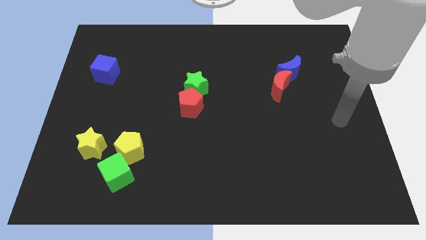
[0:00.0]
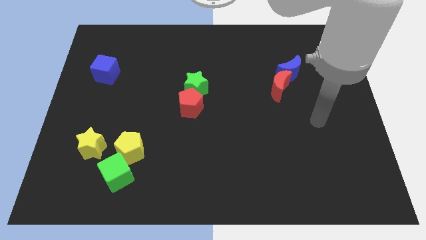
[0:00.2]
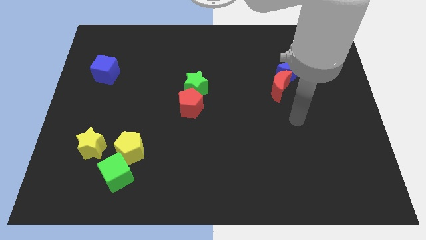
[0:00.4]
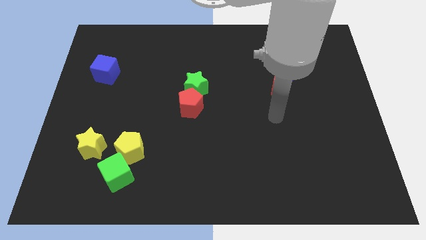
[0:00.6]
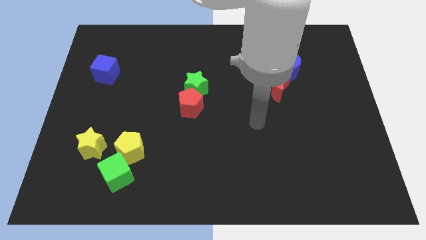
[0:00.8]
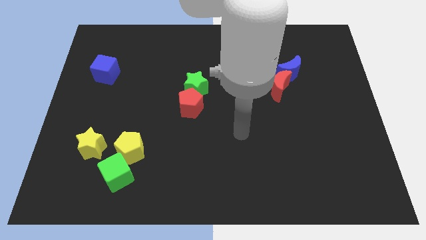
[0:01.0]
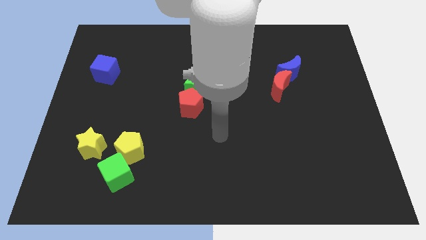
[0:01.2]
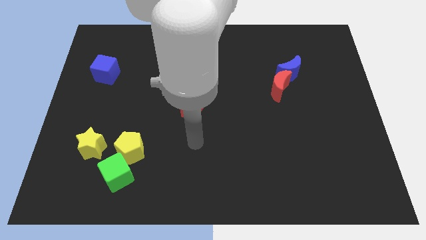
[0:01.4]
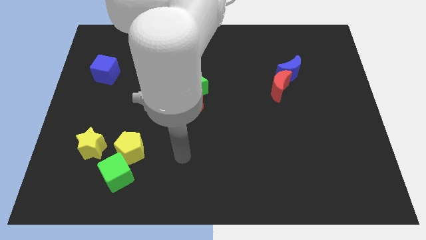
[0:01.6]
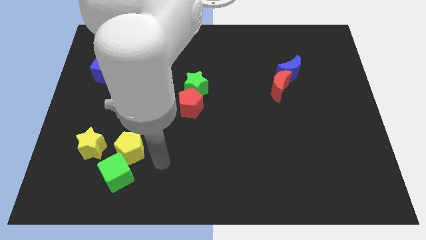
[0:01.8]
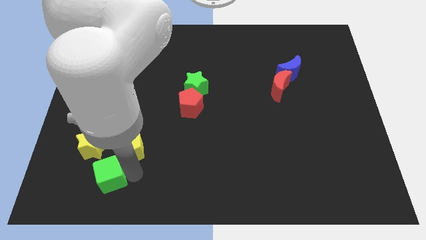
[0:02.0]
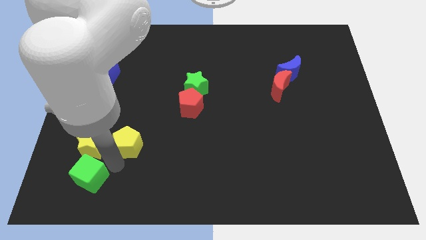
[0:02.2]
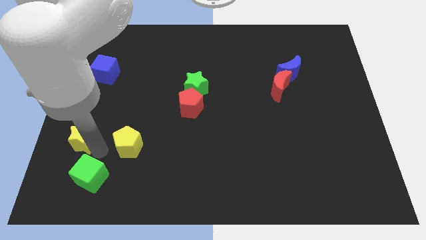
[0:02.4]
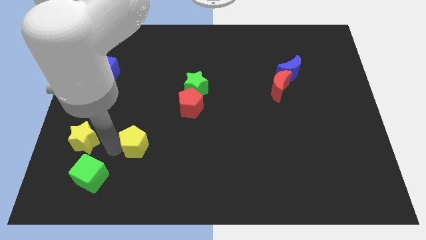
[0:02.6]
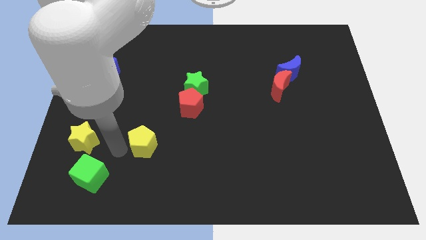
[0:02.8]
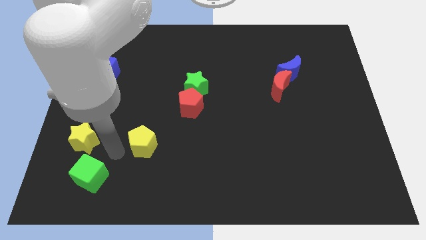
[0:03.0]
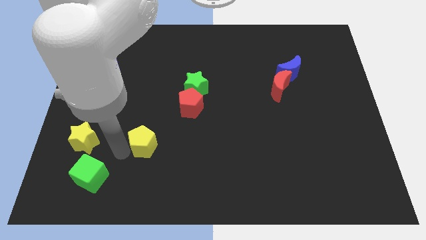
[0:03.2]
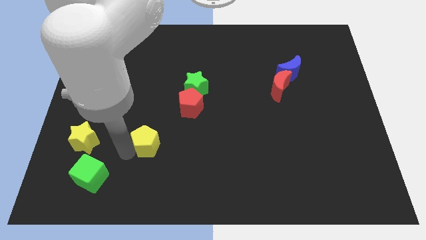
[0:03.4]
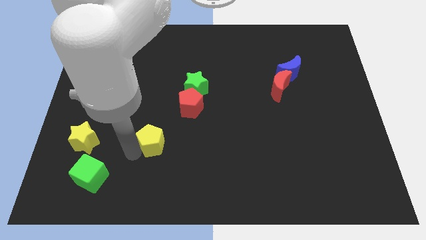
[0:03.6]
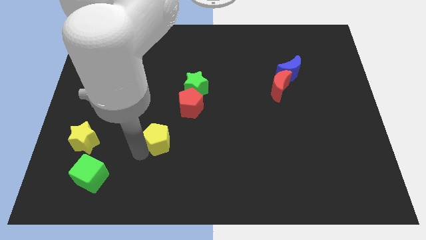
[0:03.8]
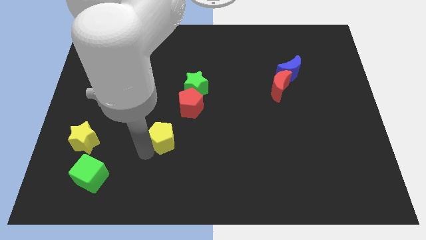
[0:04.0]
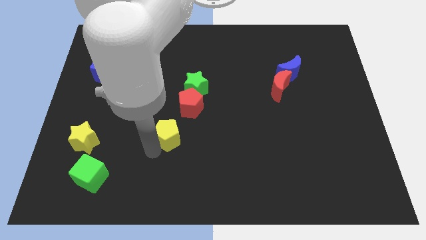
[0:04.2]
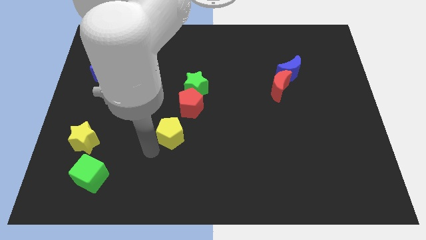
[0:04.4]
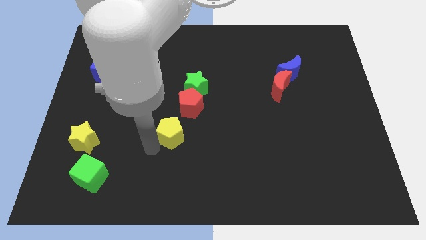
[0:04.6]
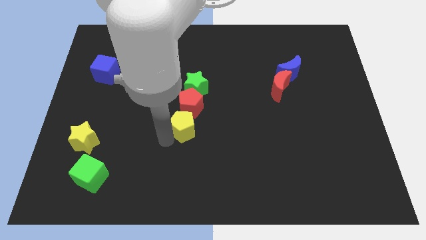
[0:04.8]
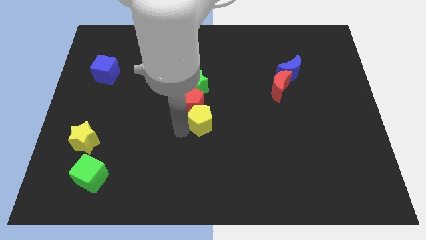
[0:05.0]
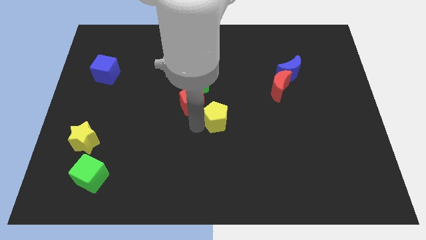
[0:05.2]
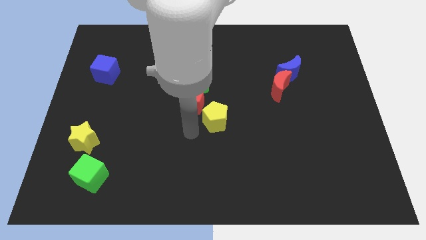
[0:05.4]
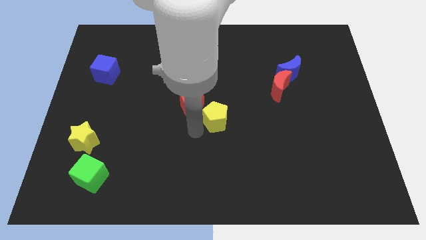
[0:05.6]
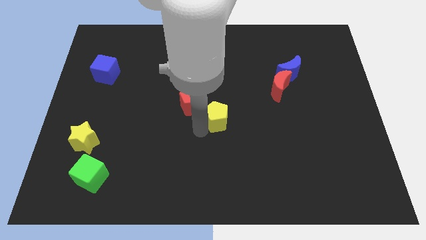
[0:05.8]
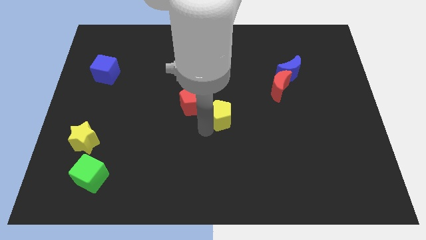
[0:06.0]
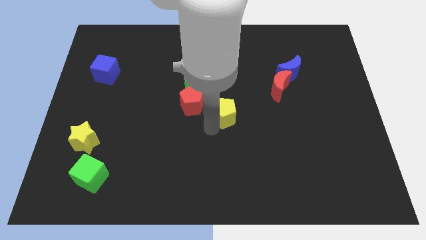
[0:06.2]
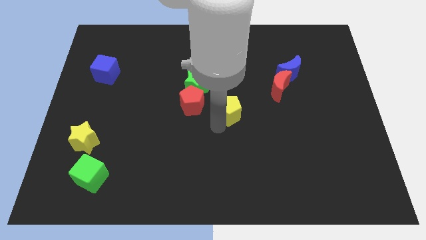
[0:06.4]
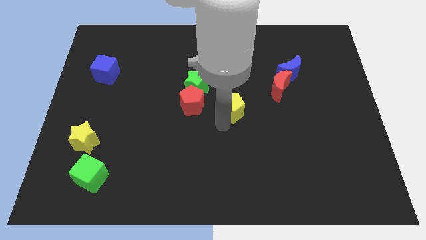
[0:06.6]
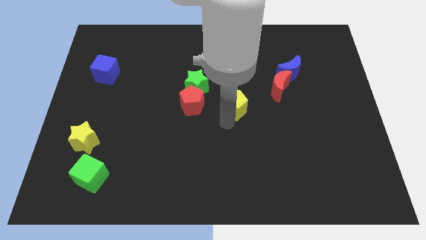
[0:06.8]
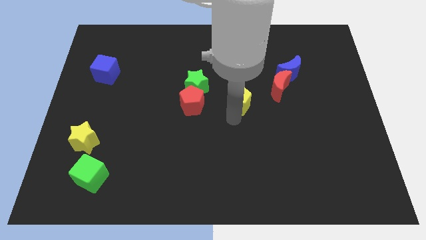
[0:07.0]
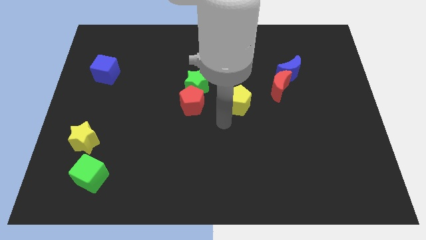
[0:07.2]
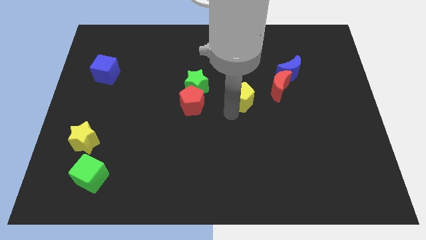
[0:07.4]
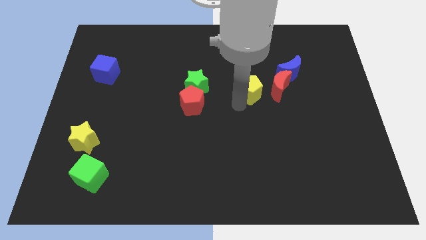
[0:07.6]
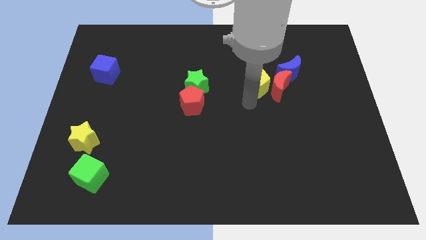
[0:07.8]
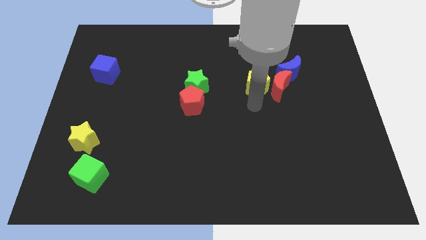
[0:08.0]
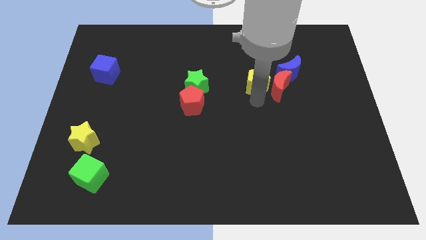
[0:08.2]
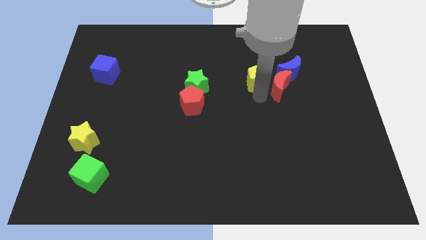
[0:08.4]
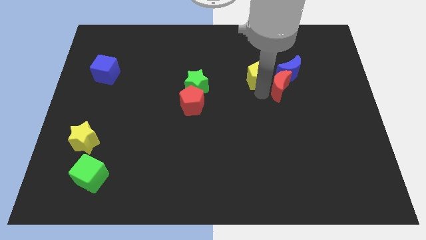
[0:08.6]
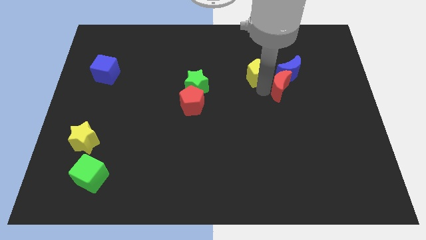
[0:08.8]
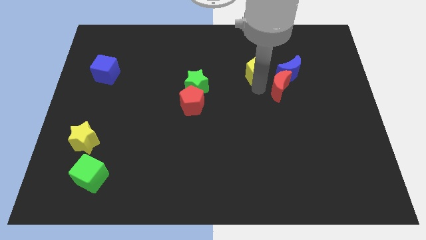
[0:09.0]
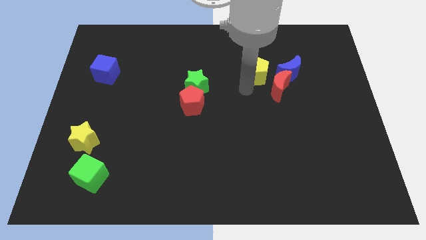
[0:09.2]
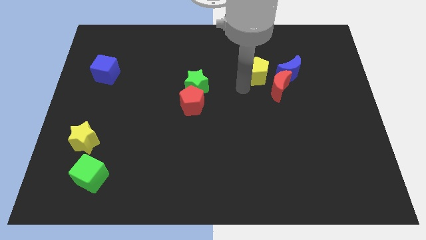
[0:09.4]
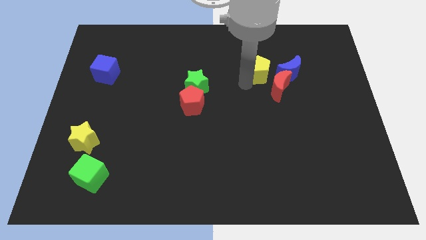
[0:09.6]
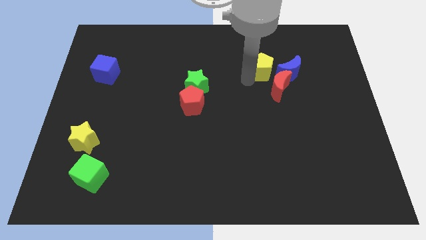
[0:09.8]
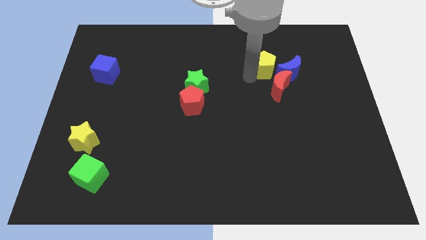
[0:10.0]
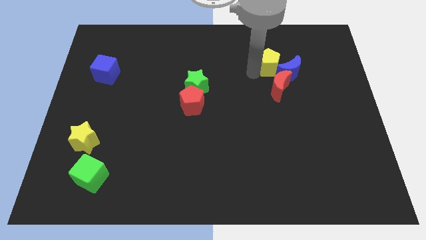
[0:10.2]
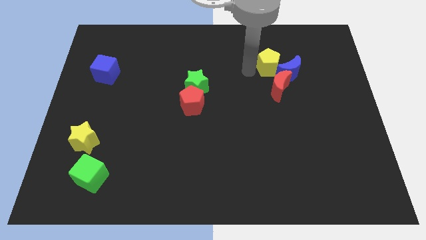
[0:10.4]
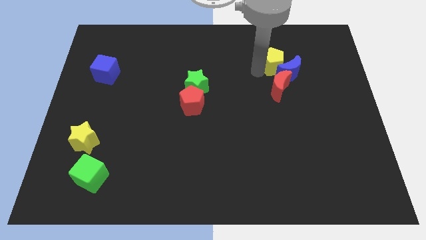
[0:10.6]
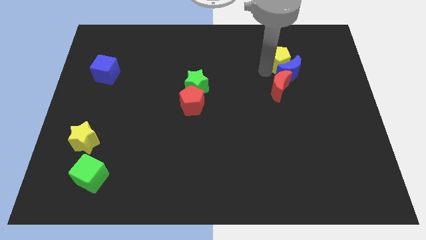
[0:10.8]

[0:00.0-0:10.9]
push the yellow pentagon to the top right side of the blue moon

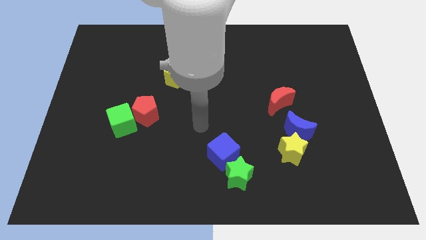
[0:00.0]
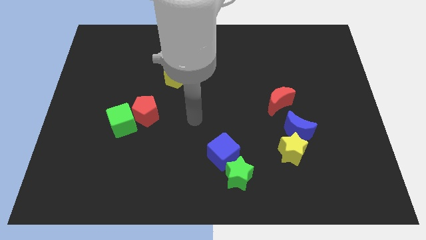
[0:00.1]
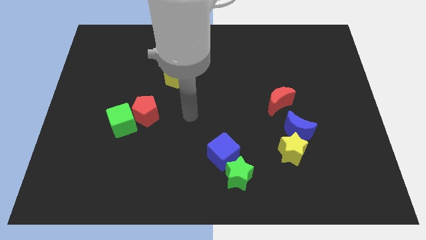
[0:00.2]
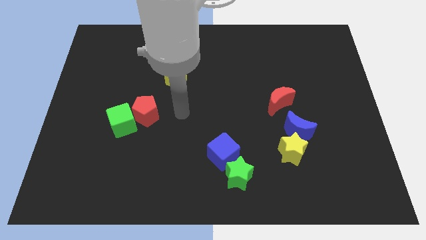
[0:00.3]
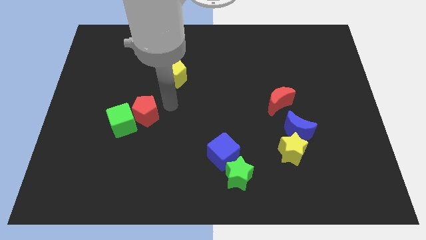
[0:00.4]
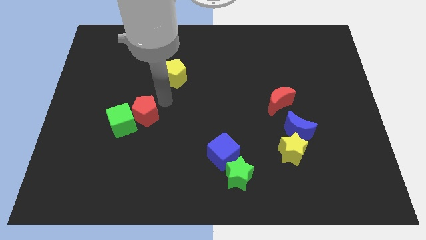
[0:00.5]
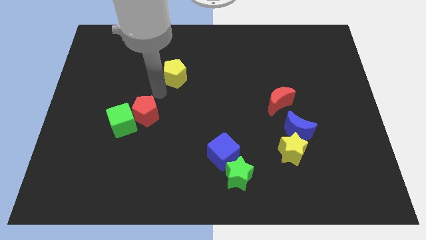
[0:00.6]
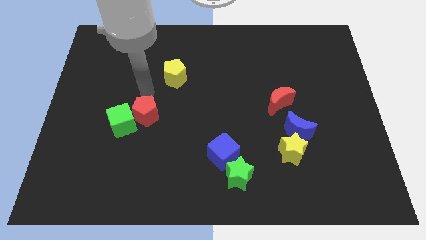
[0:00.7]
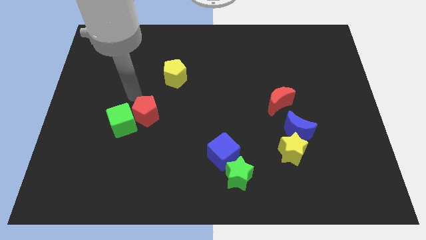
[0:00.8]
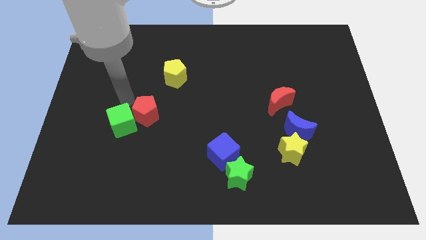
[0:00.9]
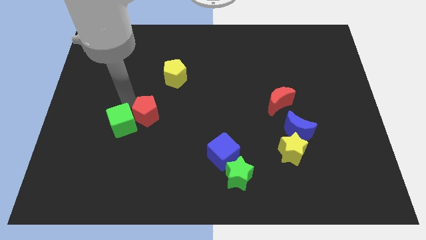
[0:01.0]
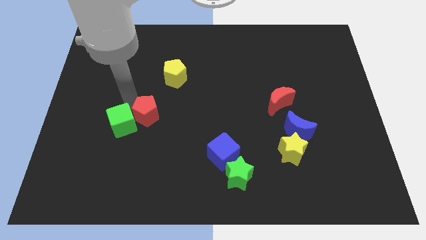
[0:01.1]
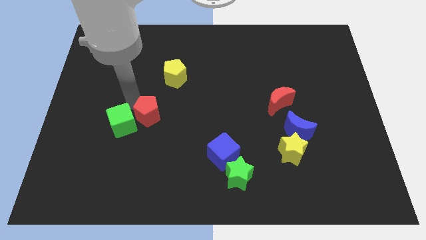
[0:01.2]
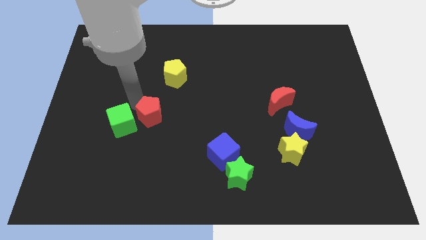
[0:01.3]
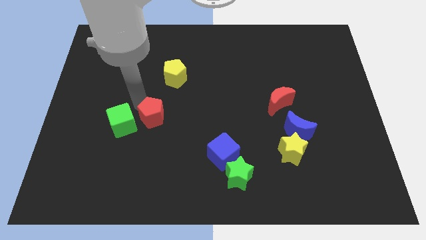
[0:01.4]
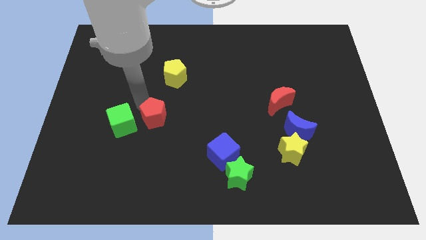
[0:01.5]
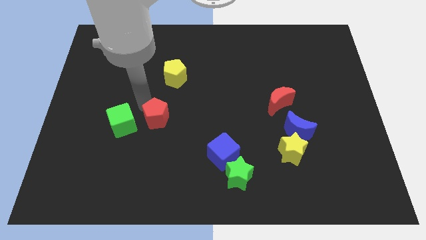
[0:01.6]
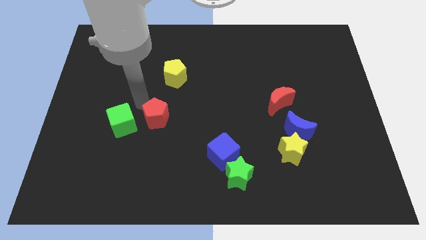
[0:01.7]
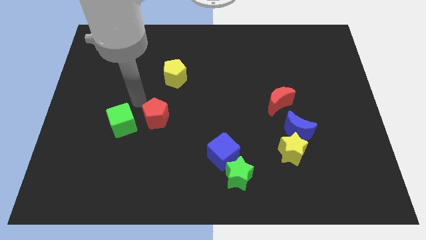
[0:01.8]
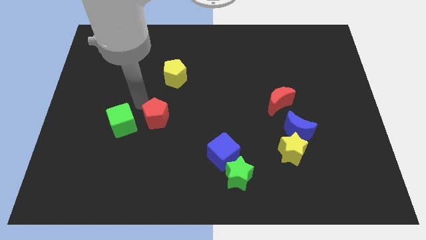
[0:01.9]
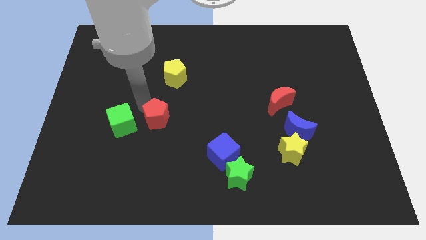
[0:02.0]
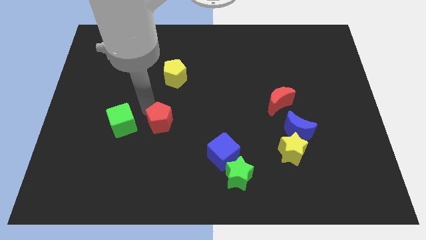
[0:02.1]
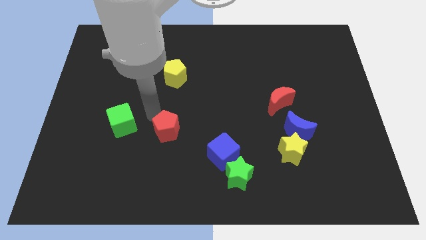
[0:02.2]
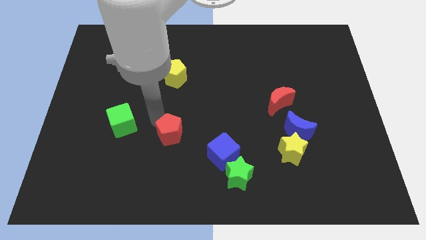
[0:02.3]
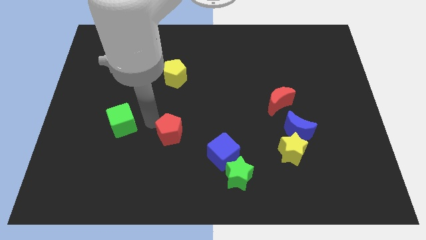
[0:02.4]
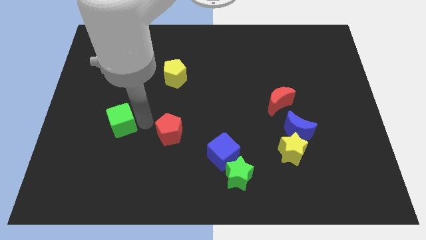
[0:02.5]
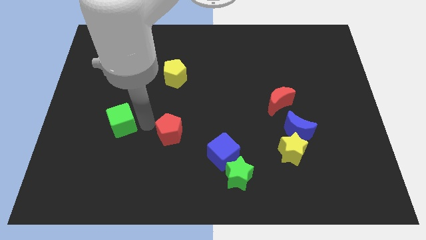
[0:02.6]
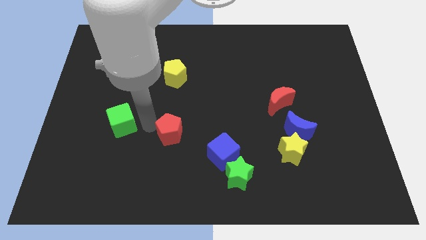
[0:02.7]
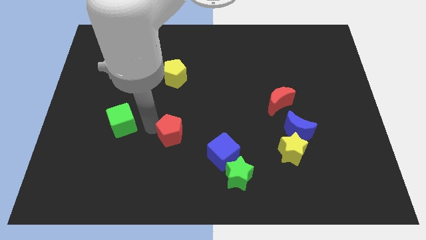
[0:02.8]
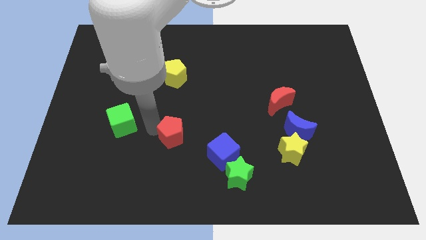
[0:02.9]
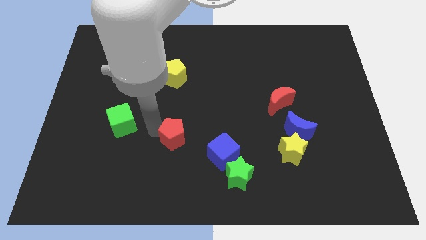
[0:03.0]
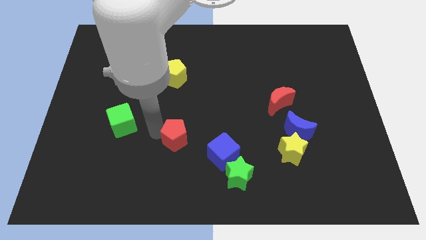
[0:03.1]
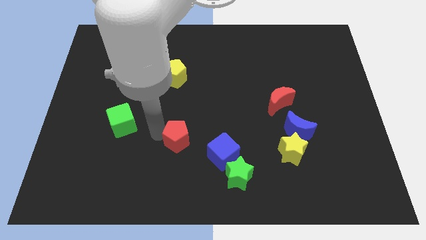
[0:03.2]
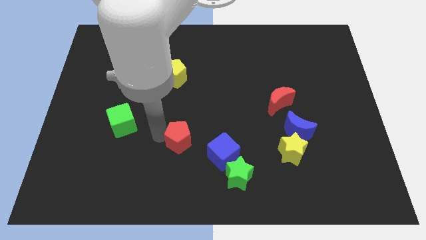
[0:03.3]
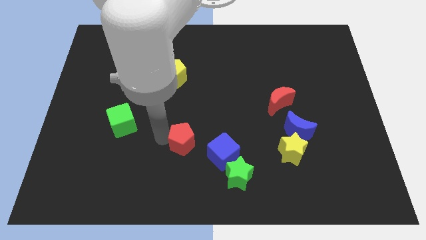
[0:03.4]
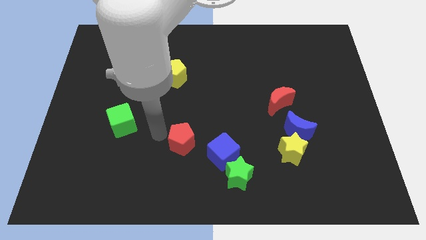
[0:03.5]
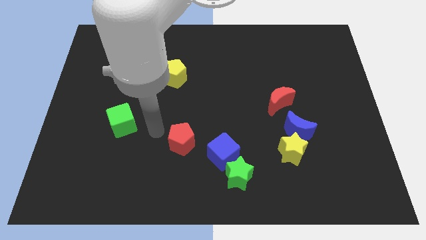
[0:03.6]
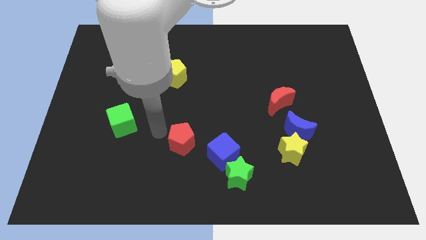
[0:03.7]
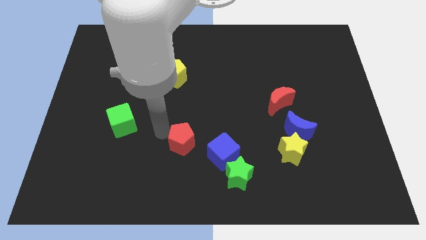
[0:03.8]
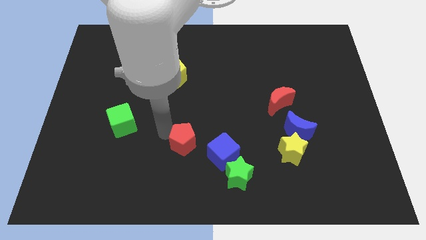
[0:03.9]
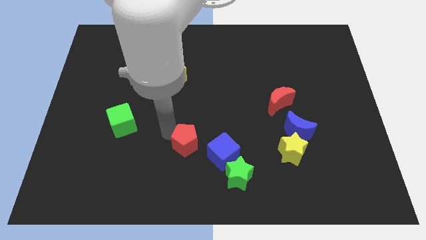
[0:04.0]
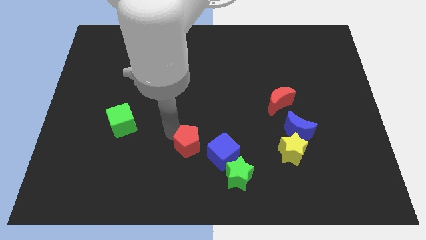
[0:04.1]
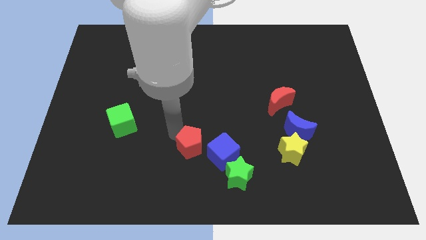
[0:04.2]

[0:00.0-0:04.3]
push the red pentagon diagonally up and to the left of the green star
